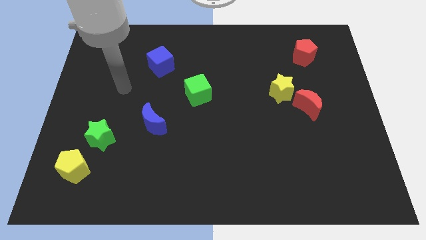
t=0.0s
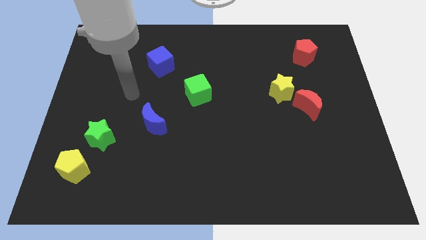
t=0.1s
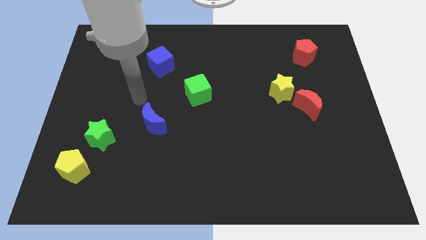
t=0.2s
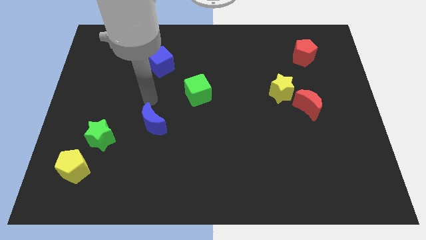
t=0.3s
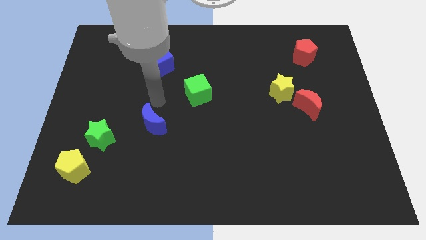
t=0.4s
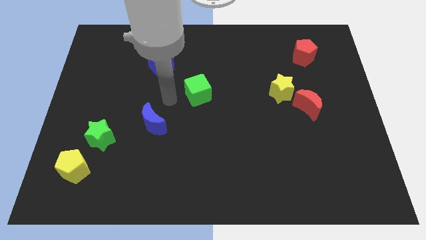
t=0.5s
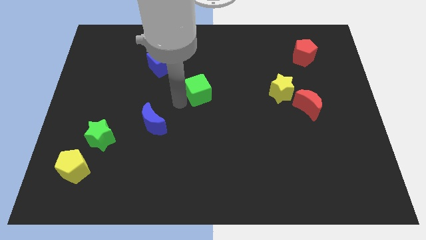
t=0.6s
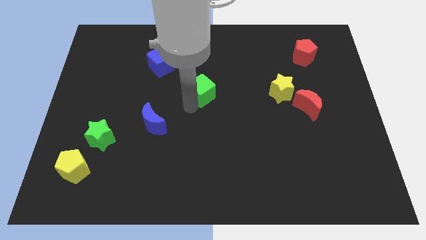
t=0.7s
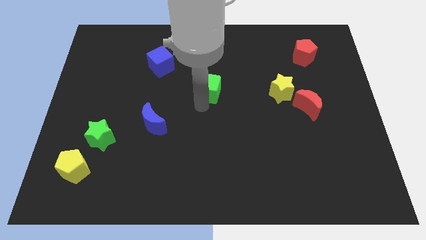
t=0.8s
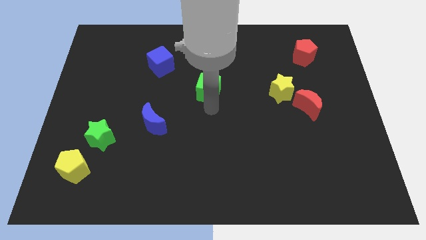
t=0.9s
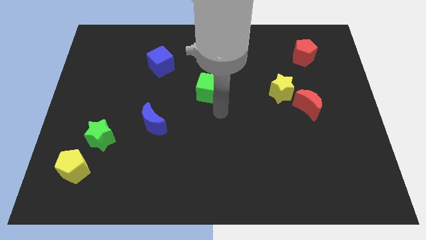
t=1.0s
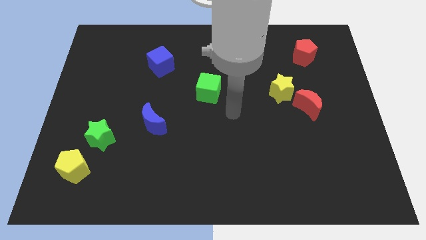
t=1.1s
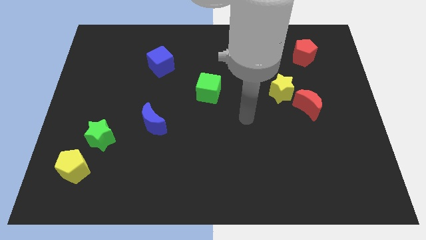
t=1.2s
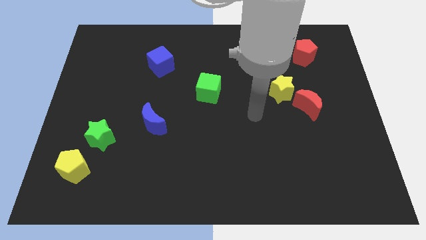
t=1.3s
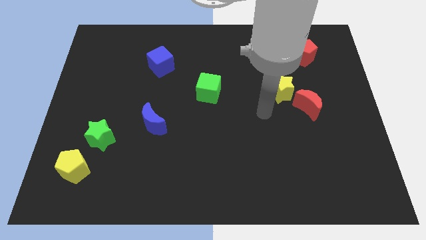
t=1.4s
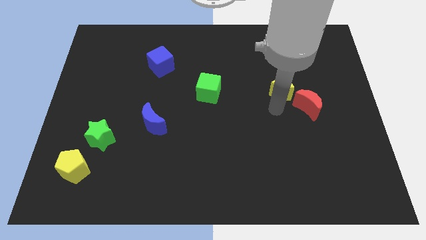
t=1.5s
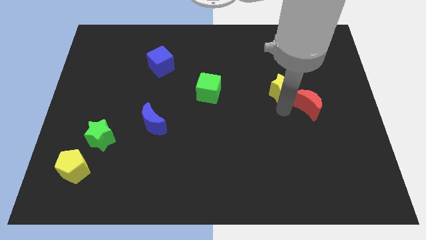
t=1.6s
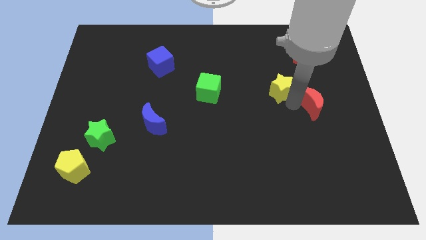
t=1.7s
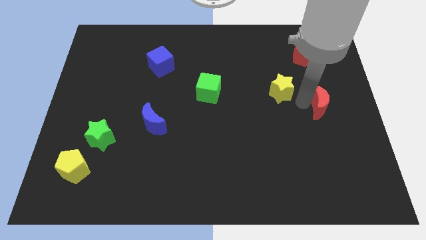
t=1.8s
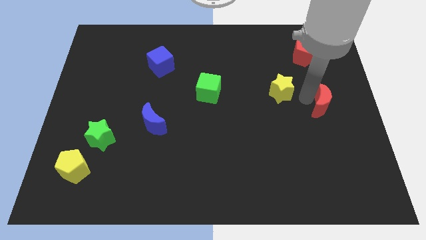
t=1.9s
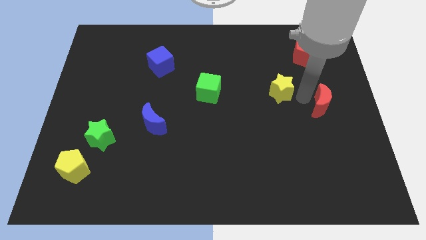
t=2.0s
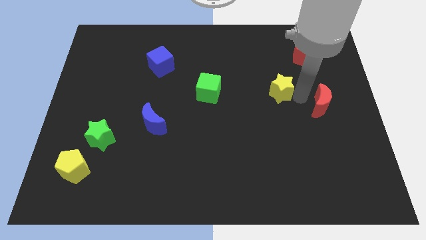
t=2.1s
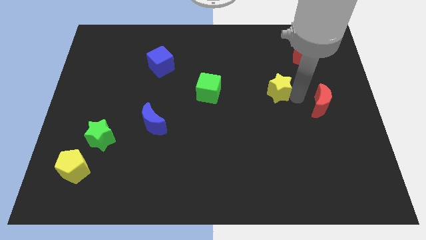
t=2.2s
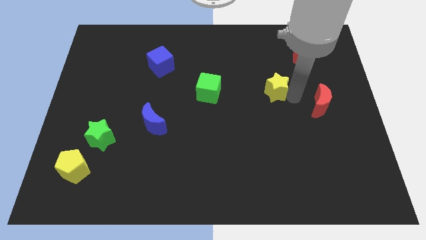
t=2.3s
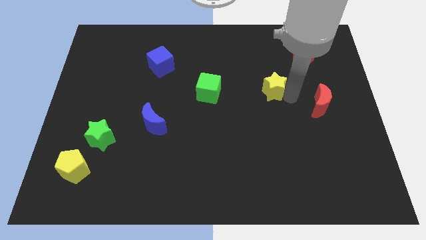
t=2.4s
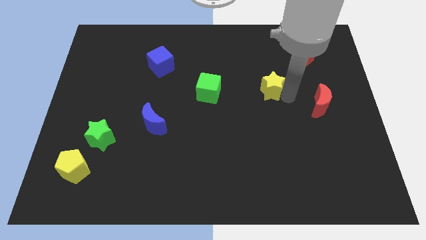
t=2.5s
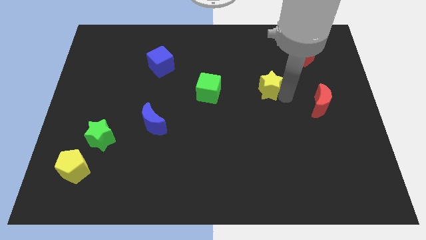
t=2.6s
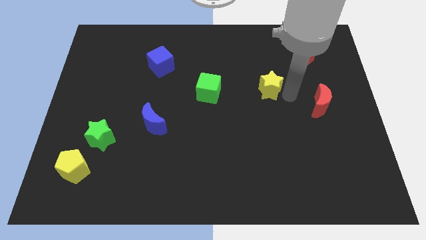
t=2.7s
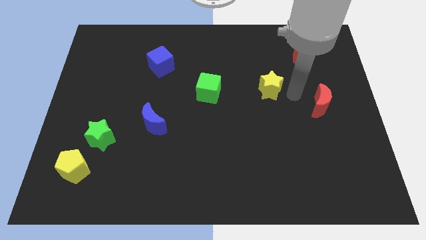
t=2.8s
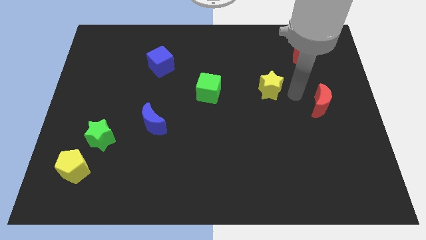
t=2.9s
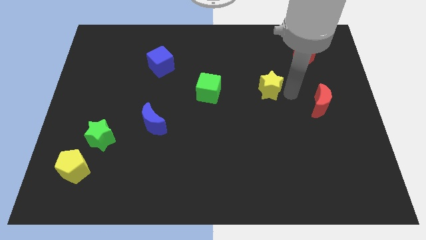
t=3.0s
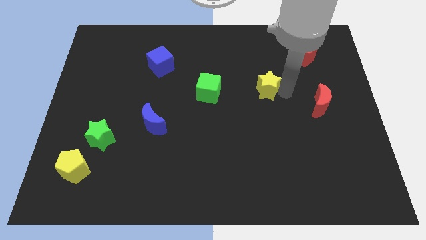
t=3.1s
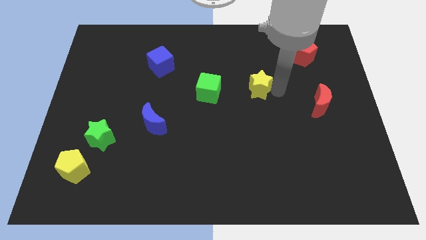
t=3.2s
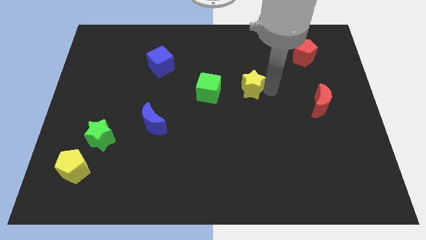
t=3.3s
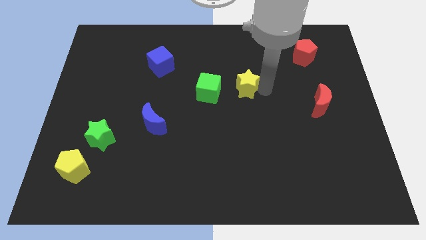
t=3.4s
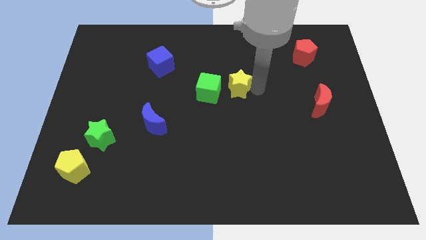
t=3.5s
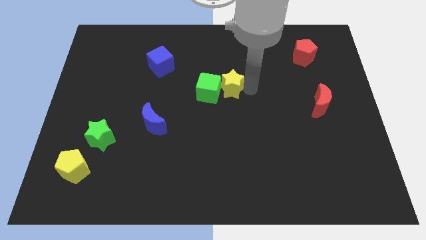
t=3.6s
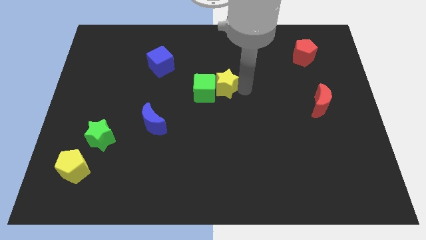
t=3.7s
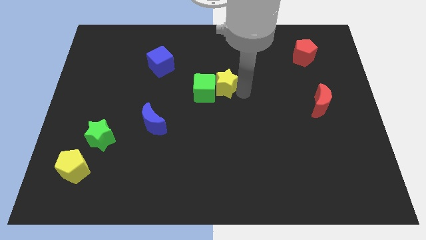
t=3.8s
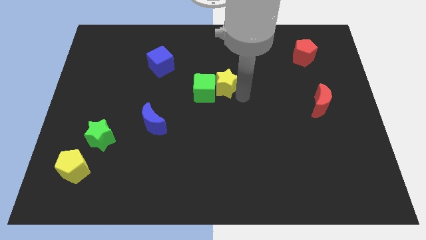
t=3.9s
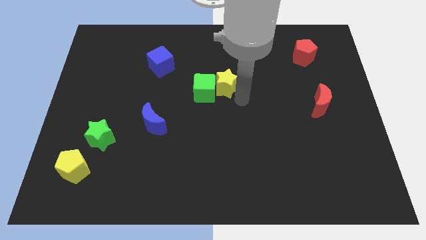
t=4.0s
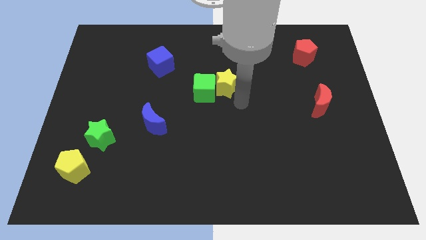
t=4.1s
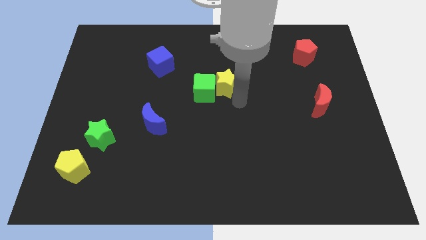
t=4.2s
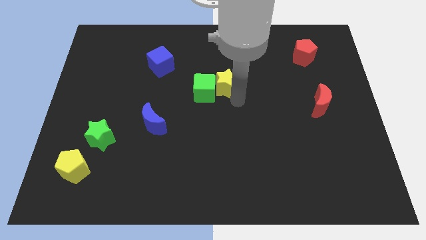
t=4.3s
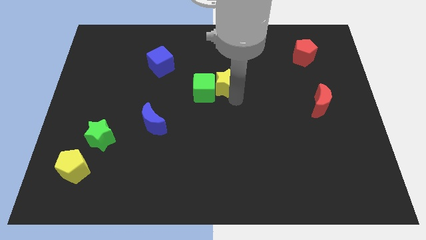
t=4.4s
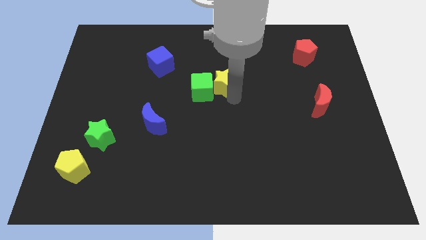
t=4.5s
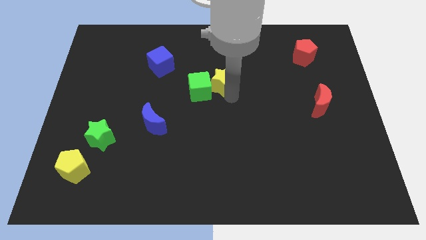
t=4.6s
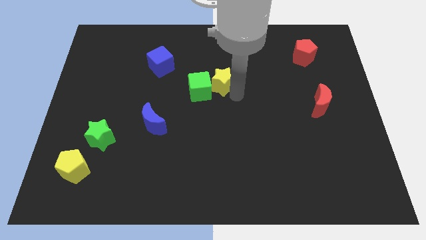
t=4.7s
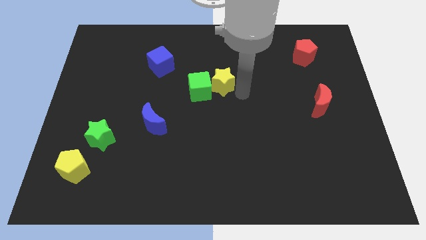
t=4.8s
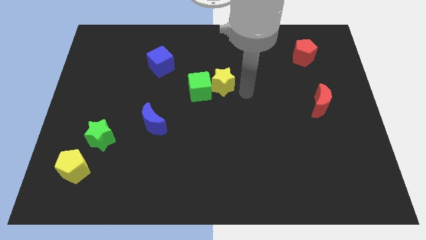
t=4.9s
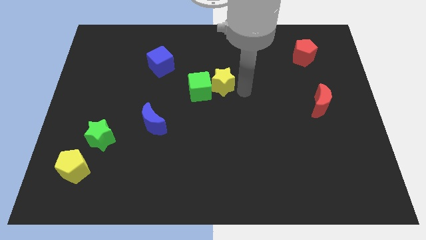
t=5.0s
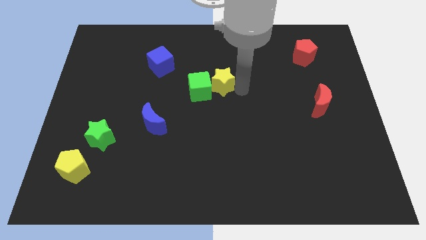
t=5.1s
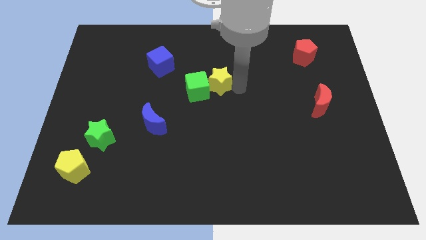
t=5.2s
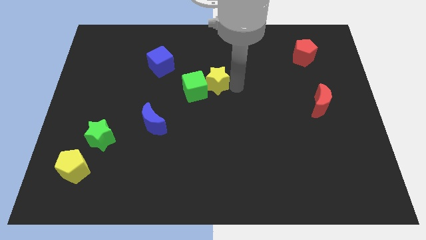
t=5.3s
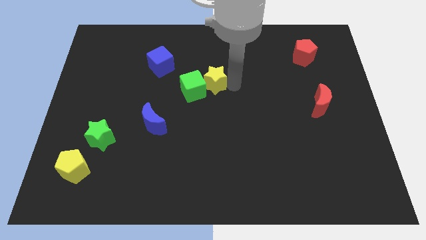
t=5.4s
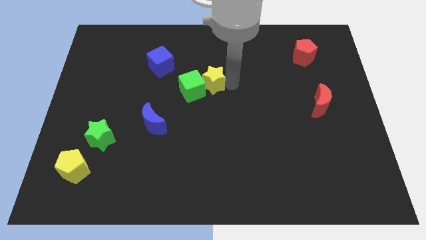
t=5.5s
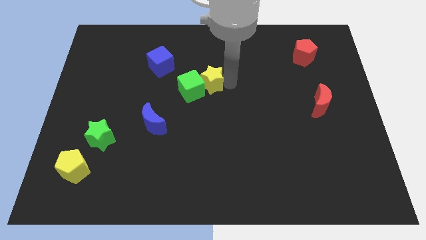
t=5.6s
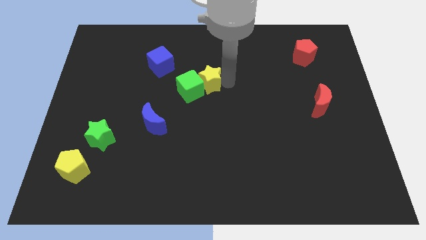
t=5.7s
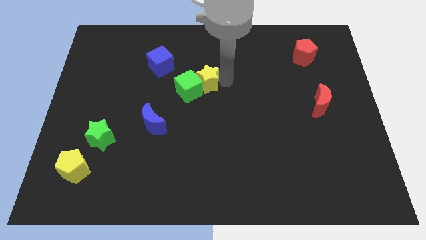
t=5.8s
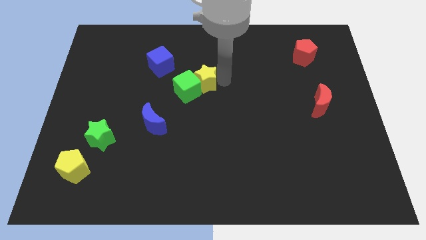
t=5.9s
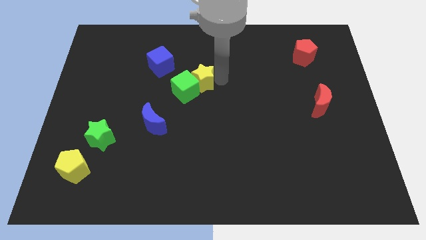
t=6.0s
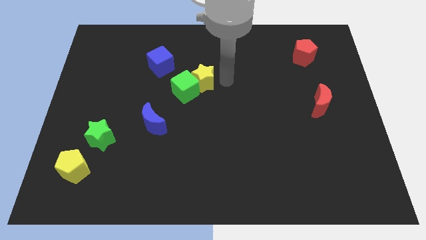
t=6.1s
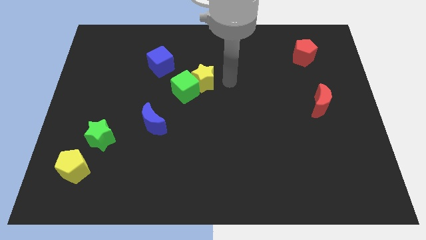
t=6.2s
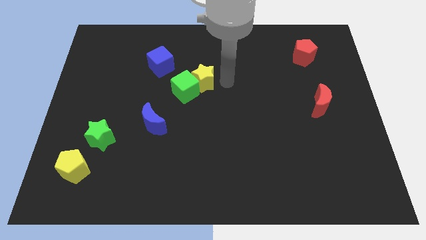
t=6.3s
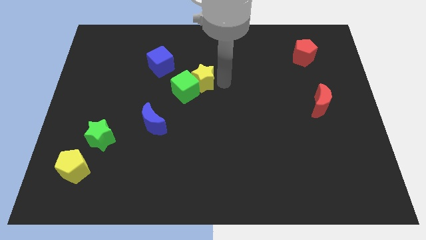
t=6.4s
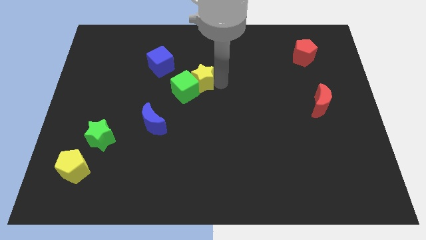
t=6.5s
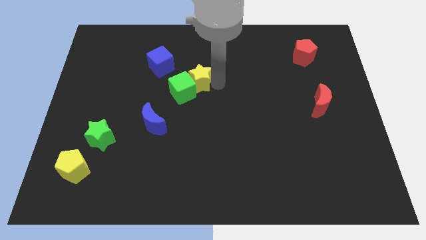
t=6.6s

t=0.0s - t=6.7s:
push the yellow star diagonally down and to the right of the blue cube
